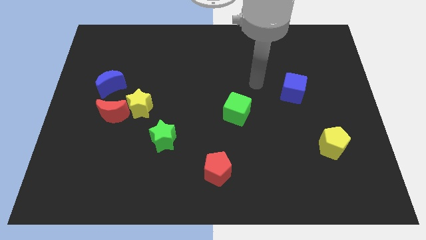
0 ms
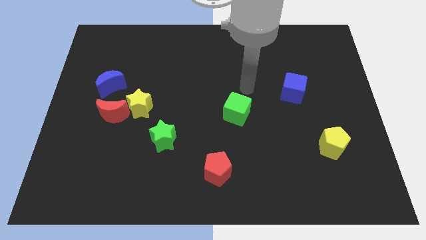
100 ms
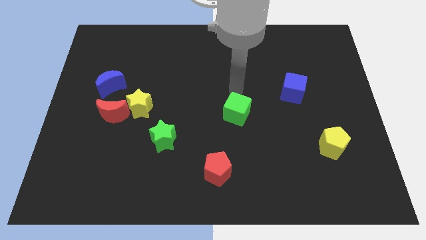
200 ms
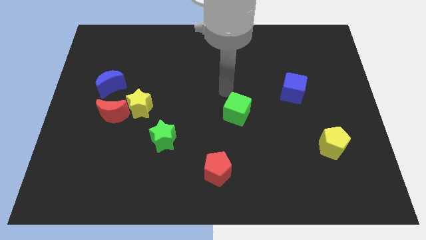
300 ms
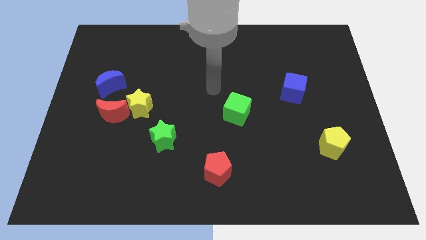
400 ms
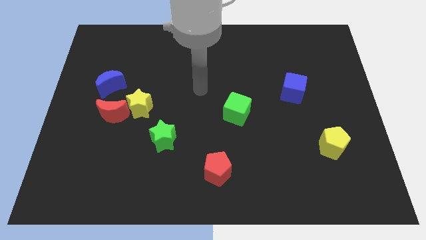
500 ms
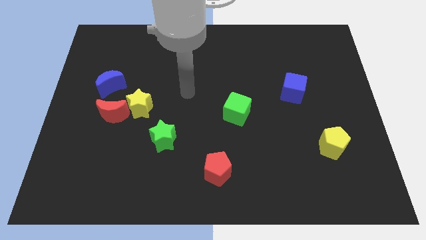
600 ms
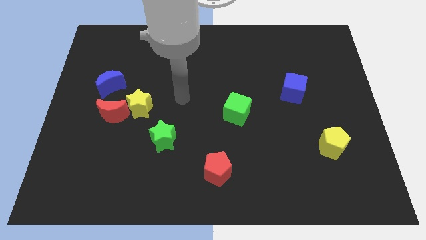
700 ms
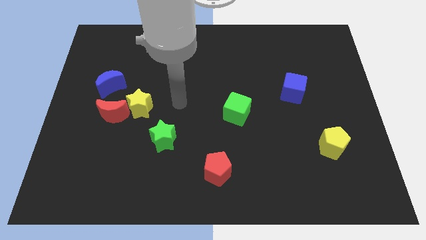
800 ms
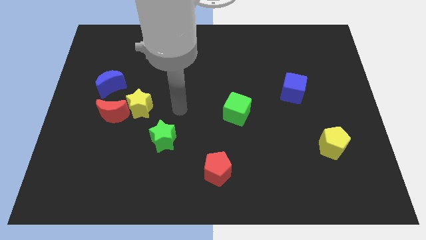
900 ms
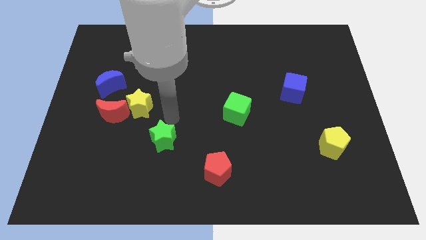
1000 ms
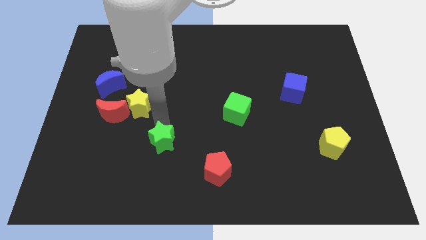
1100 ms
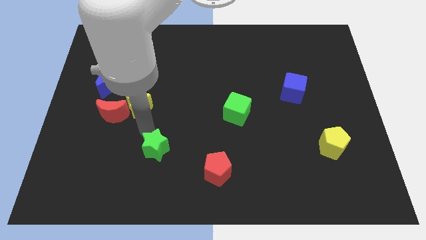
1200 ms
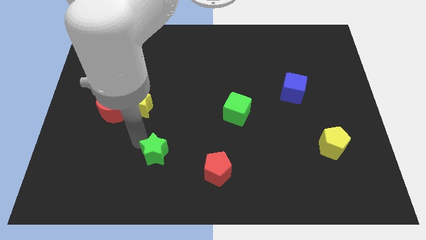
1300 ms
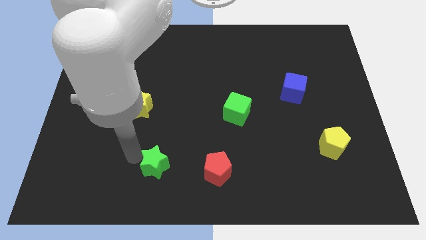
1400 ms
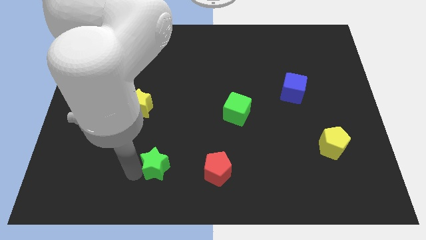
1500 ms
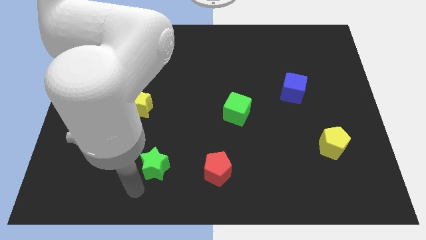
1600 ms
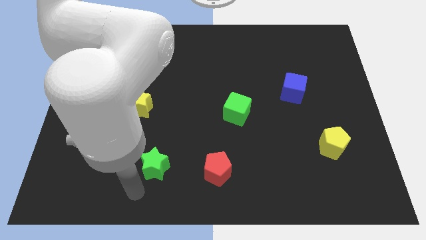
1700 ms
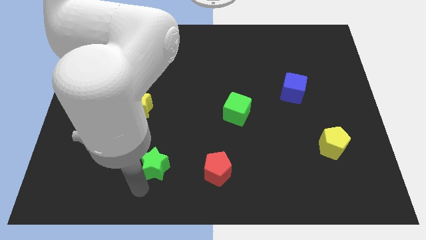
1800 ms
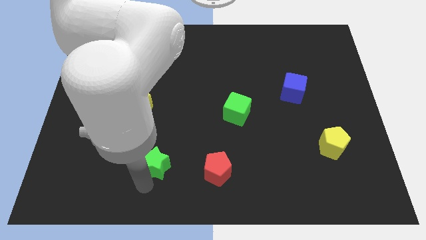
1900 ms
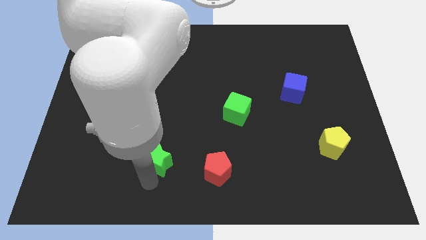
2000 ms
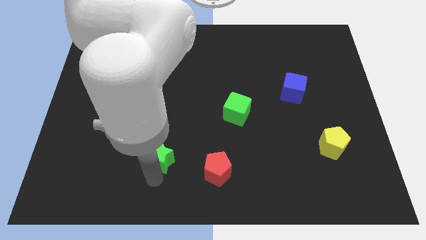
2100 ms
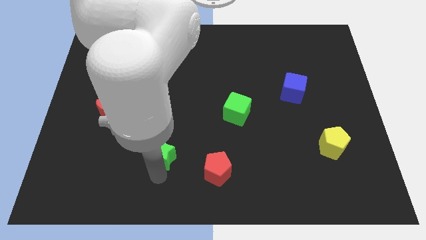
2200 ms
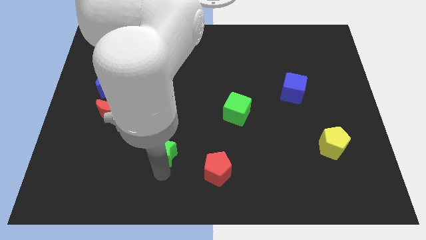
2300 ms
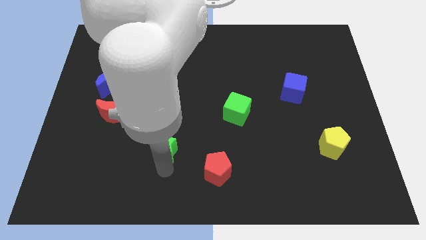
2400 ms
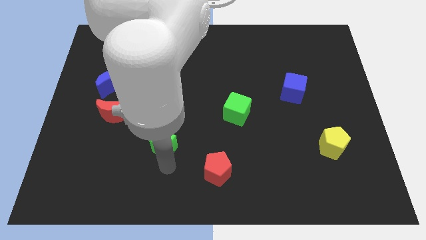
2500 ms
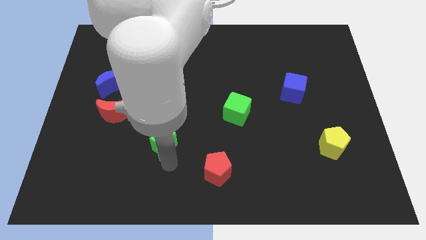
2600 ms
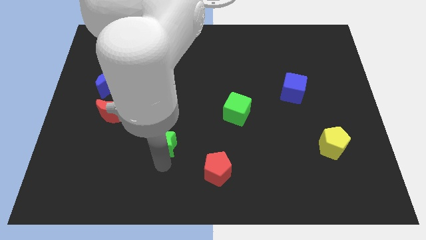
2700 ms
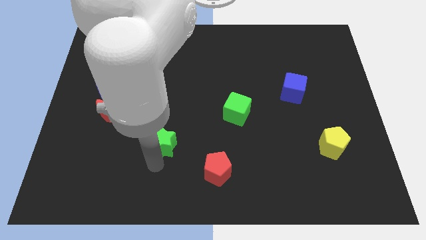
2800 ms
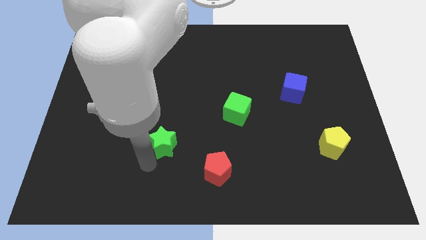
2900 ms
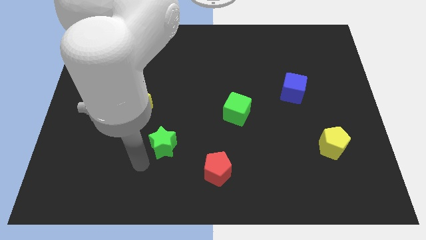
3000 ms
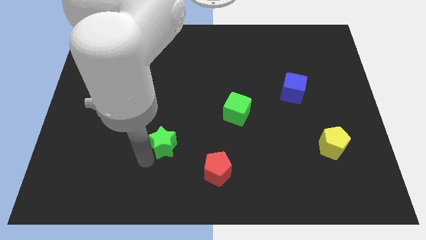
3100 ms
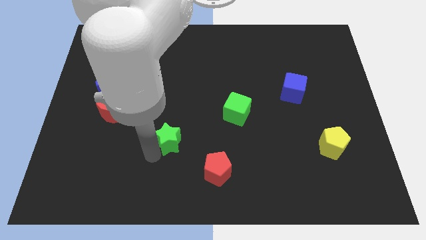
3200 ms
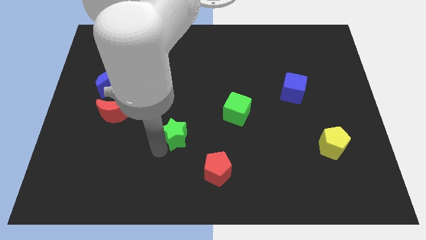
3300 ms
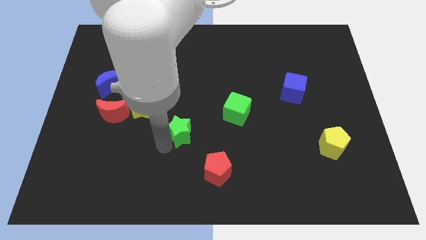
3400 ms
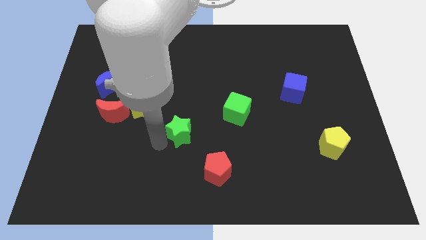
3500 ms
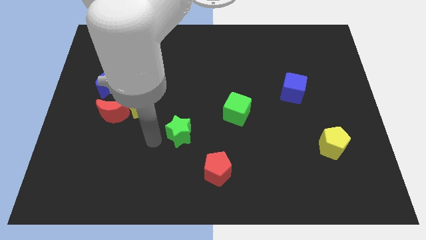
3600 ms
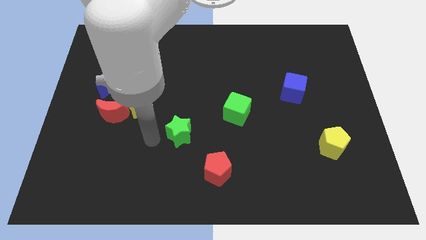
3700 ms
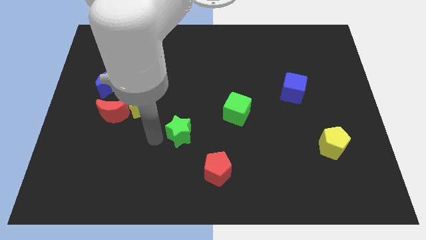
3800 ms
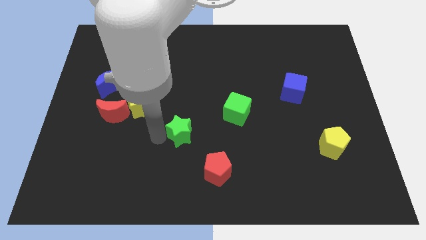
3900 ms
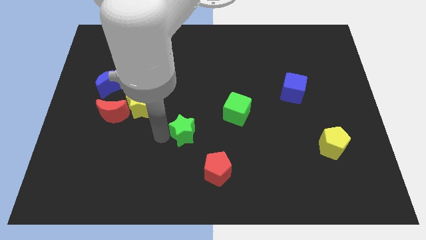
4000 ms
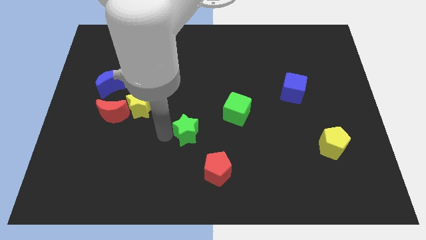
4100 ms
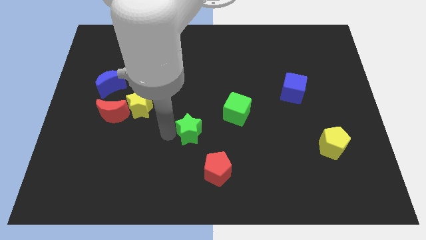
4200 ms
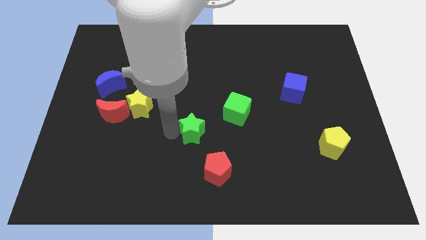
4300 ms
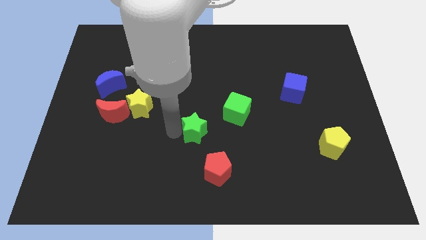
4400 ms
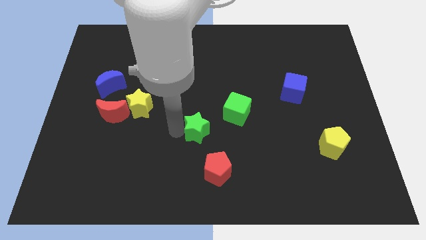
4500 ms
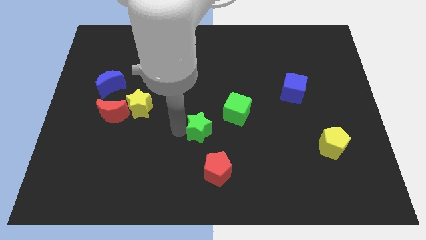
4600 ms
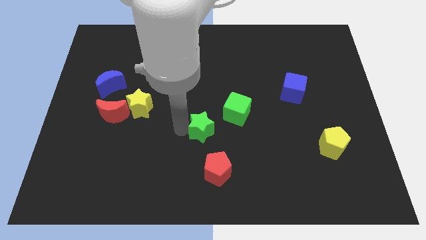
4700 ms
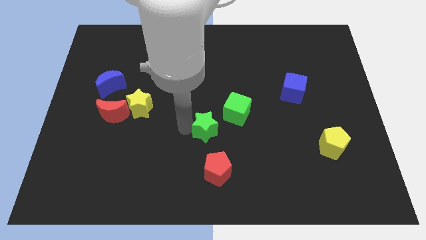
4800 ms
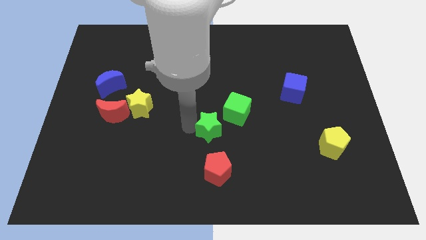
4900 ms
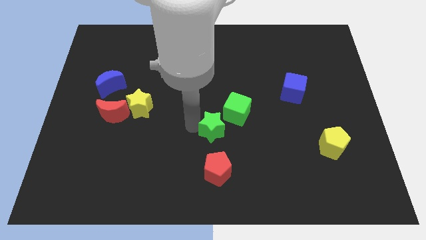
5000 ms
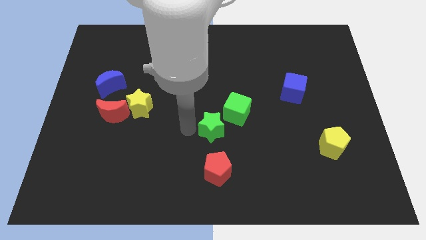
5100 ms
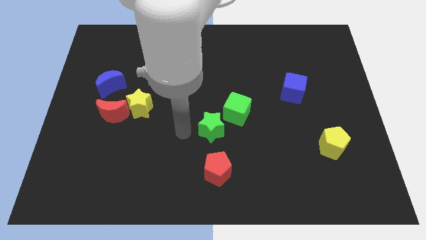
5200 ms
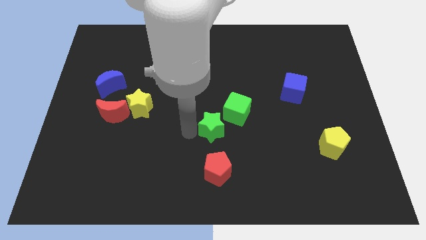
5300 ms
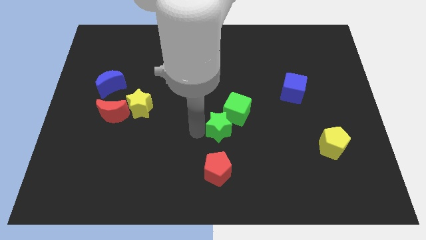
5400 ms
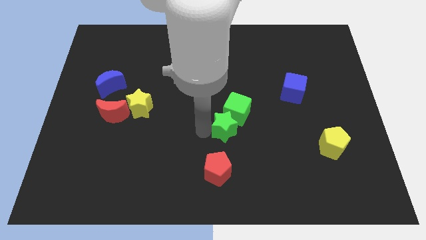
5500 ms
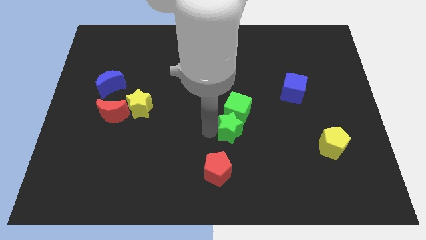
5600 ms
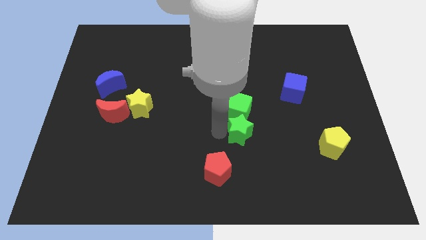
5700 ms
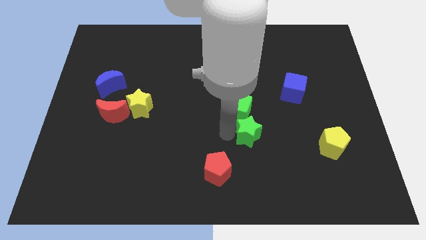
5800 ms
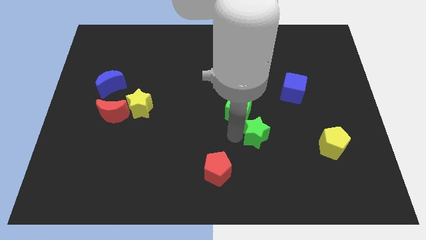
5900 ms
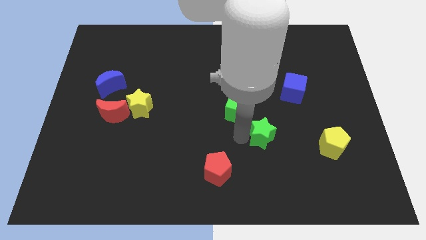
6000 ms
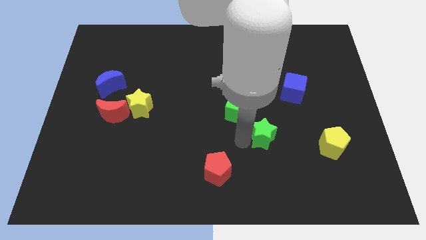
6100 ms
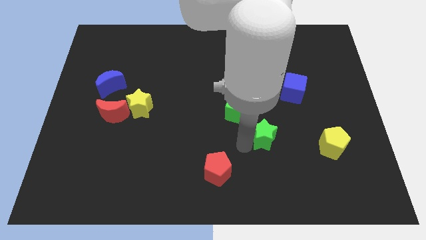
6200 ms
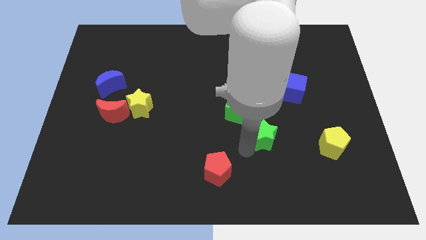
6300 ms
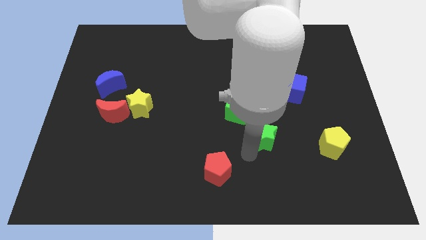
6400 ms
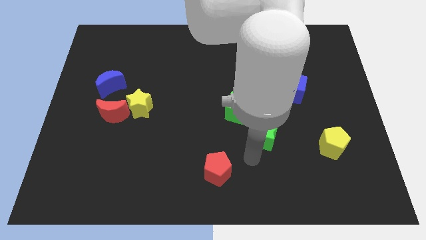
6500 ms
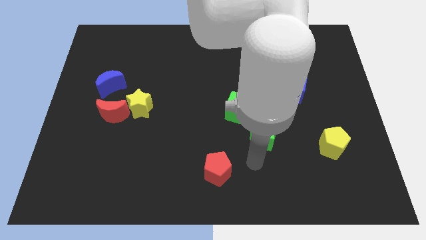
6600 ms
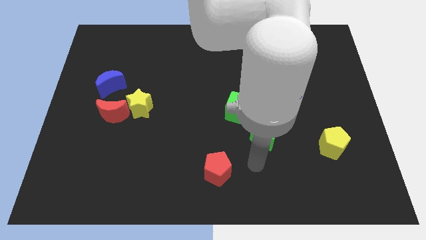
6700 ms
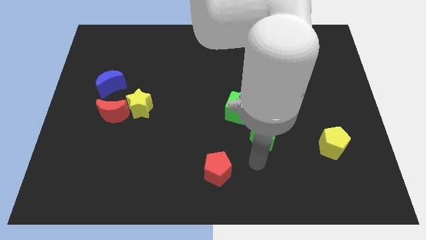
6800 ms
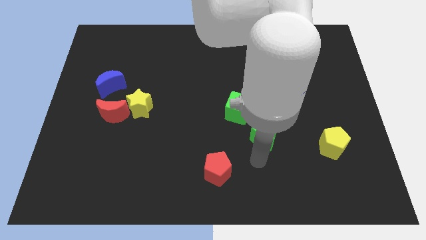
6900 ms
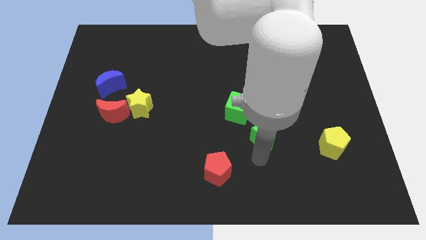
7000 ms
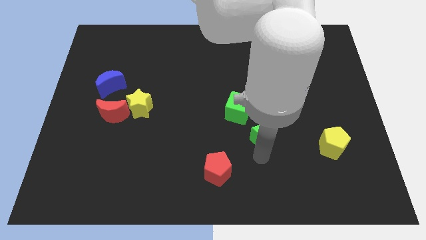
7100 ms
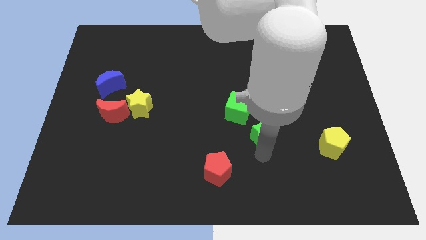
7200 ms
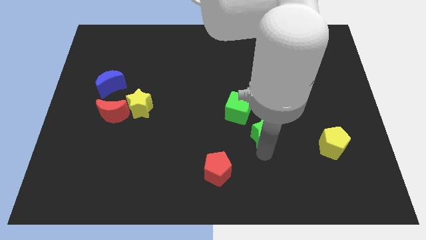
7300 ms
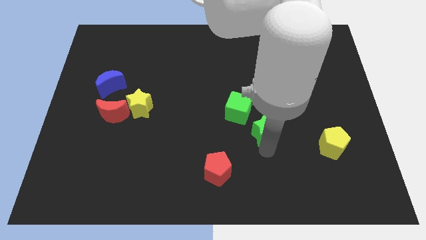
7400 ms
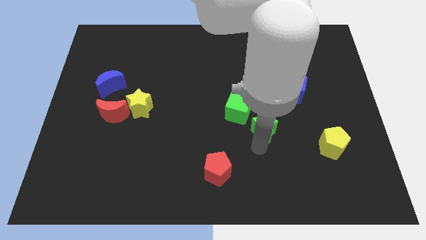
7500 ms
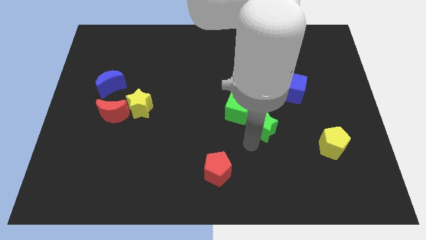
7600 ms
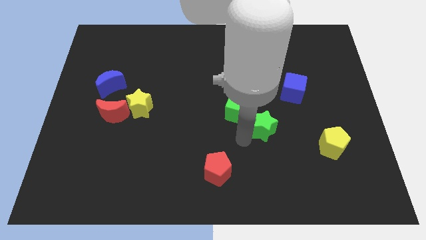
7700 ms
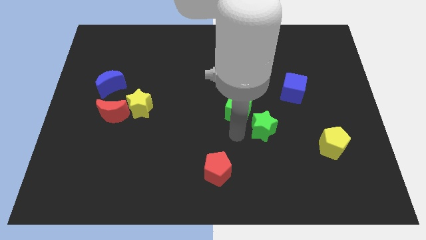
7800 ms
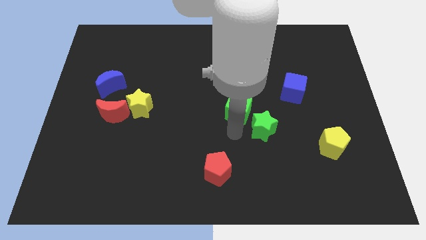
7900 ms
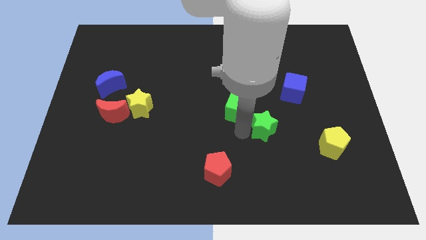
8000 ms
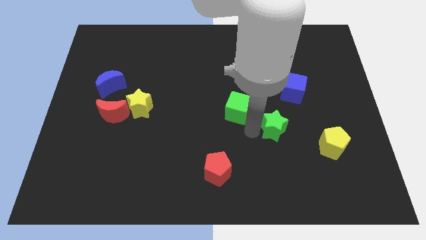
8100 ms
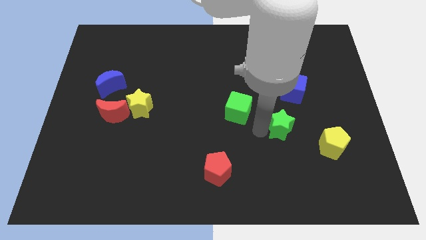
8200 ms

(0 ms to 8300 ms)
slide the green star to the bottom side of the blue cube
